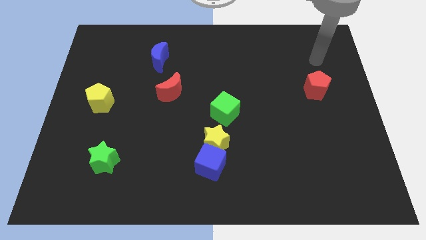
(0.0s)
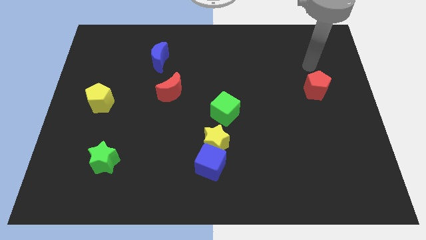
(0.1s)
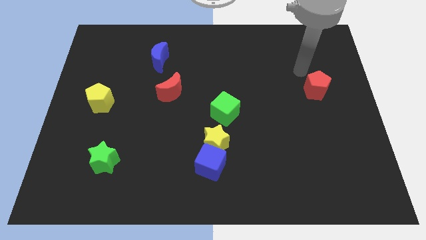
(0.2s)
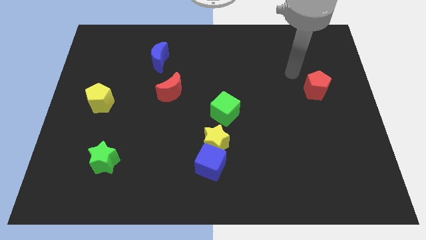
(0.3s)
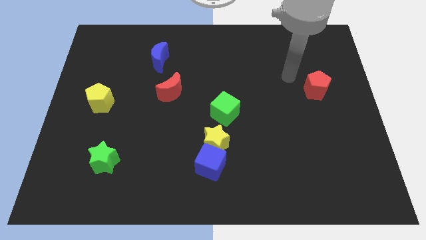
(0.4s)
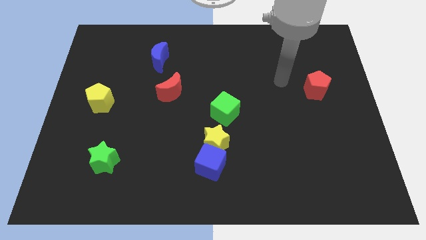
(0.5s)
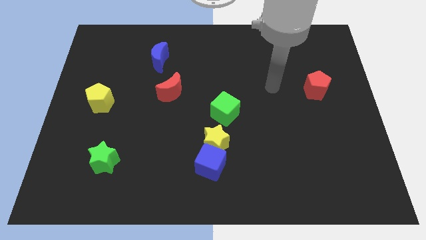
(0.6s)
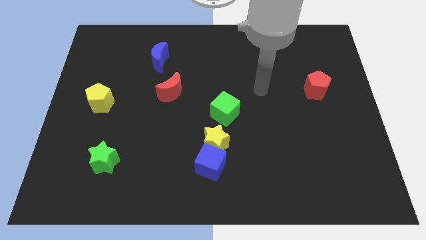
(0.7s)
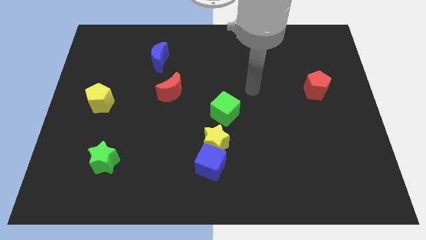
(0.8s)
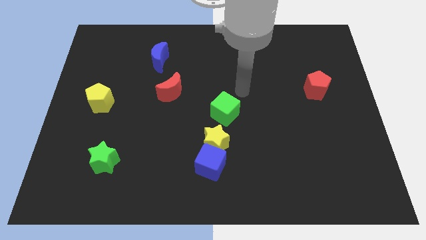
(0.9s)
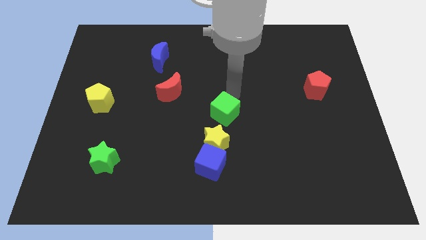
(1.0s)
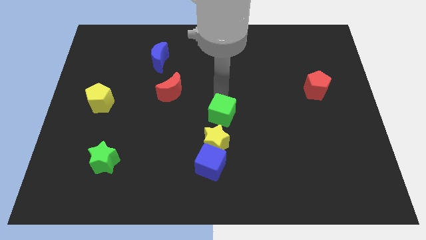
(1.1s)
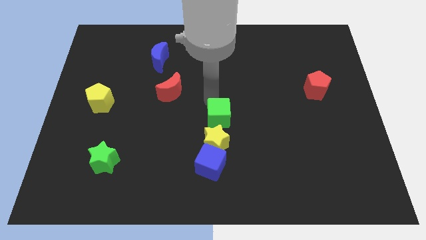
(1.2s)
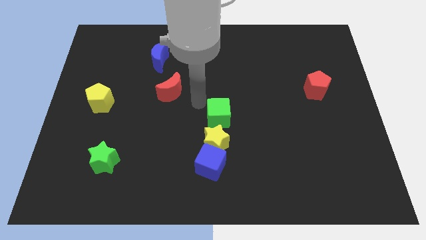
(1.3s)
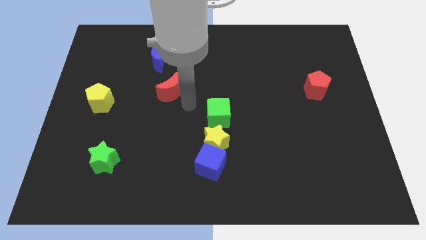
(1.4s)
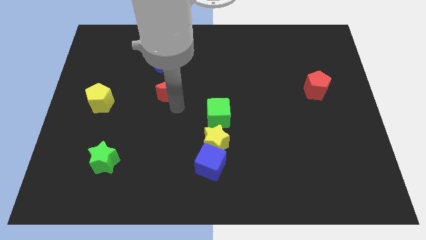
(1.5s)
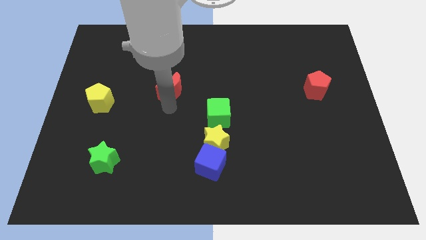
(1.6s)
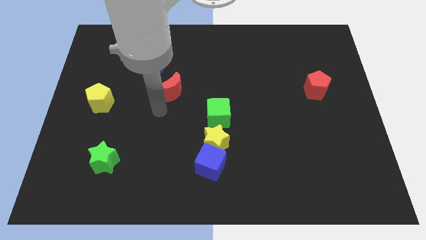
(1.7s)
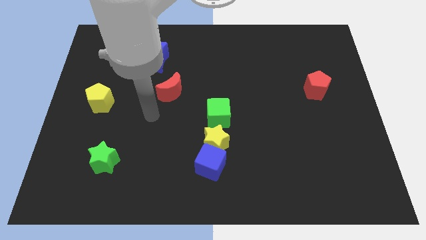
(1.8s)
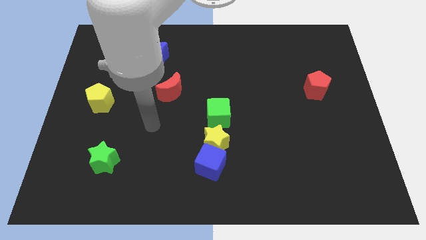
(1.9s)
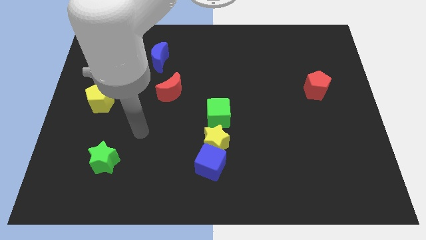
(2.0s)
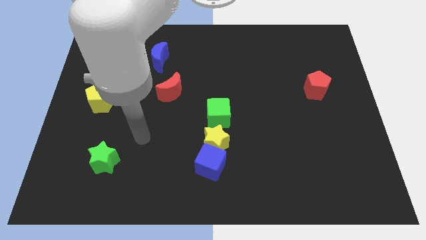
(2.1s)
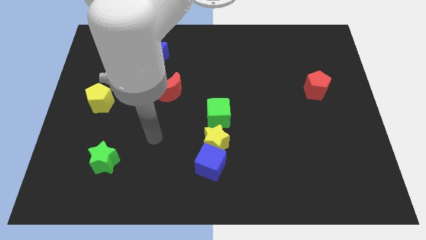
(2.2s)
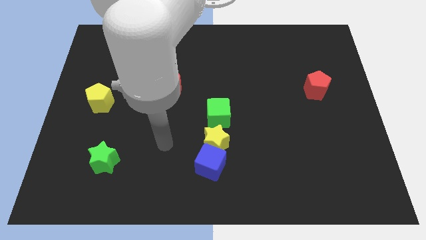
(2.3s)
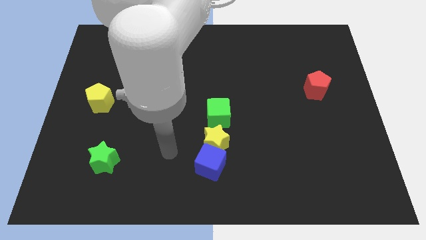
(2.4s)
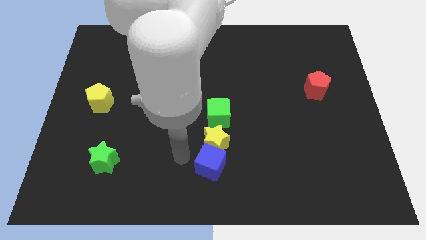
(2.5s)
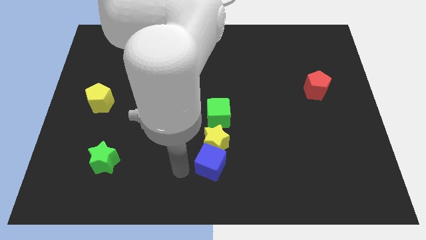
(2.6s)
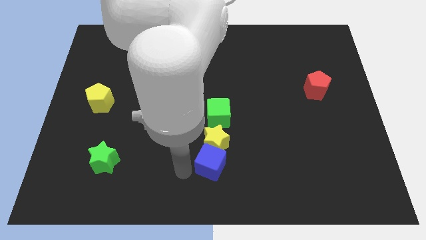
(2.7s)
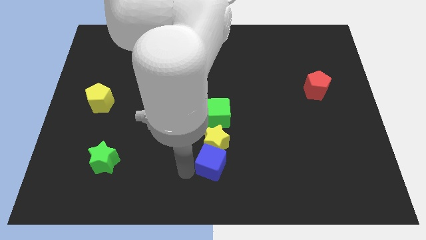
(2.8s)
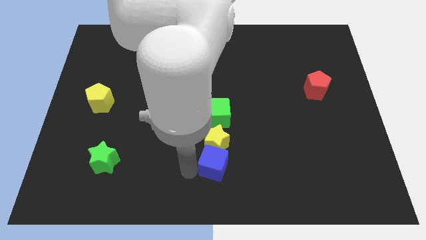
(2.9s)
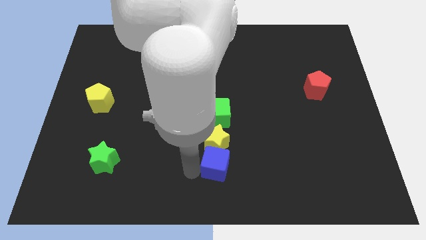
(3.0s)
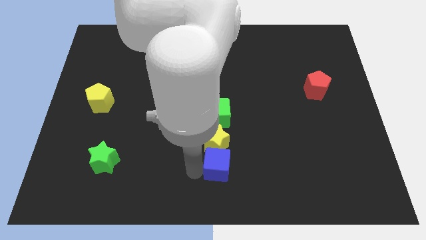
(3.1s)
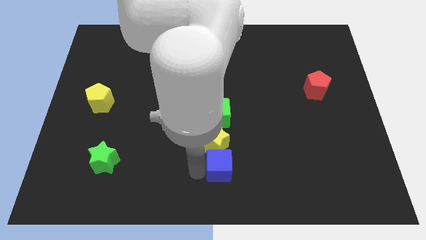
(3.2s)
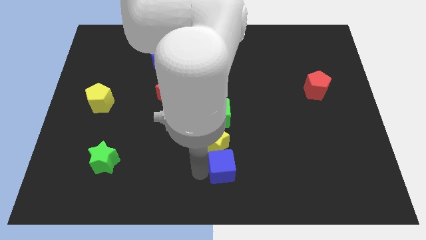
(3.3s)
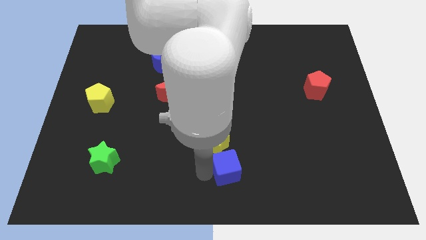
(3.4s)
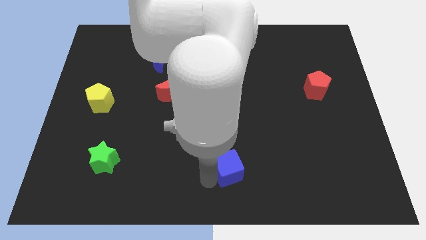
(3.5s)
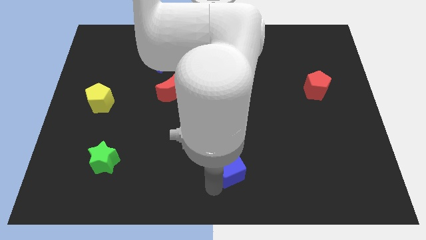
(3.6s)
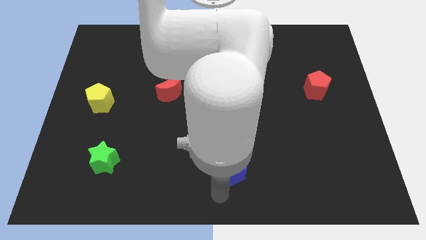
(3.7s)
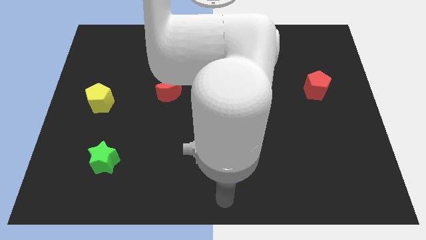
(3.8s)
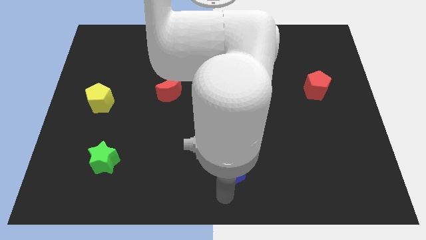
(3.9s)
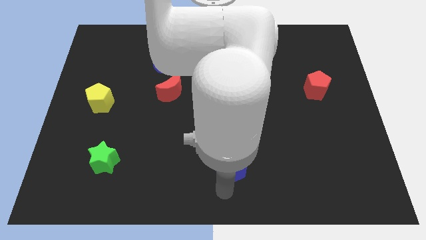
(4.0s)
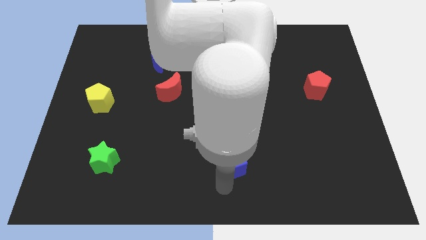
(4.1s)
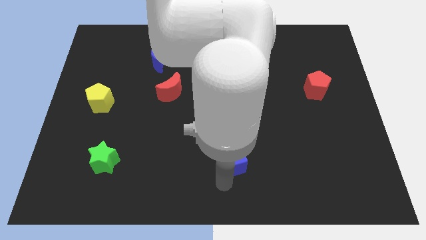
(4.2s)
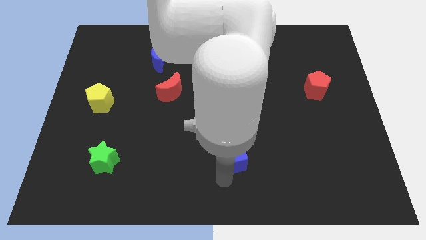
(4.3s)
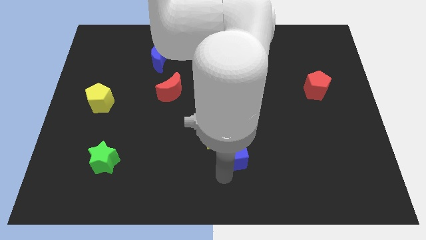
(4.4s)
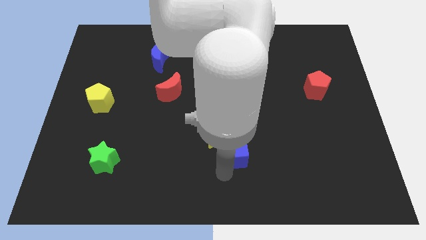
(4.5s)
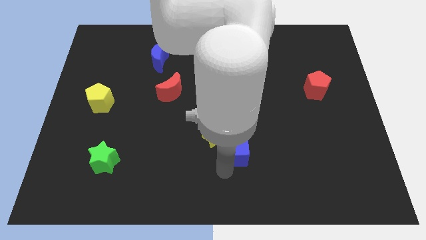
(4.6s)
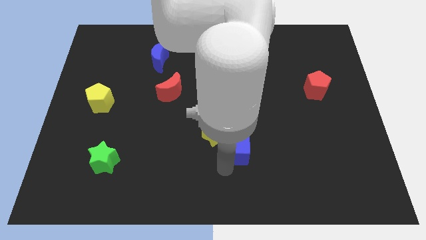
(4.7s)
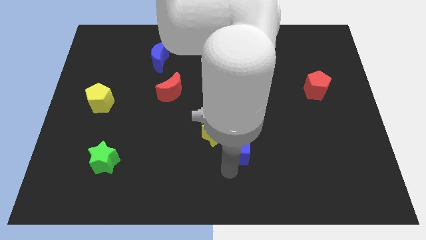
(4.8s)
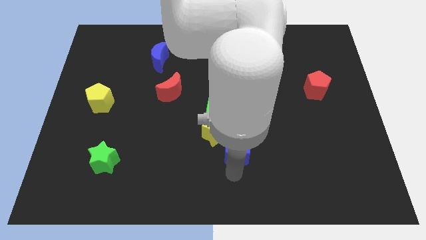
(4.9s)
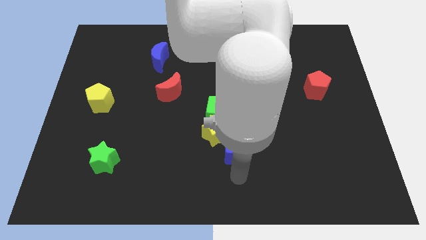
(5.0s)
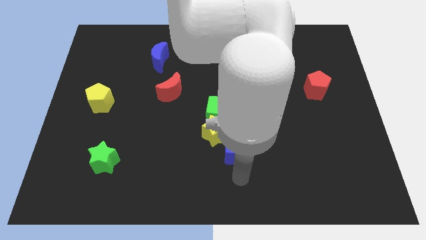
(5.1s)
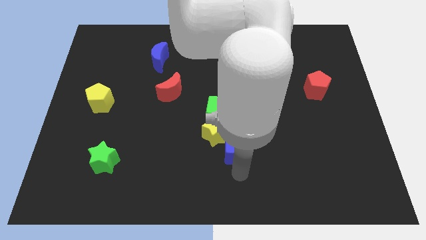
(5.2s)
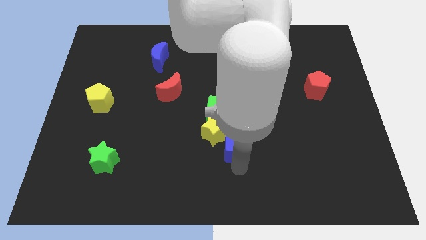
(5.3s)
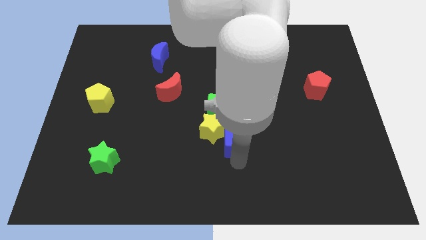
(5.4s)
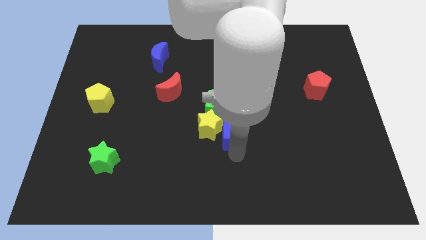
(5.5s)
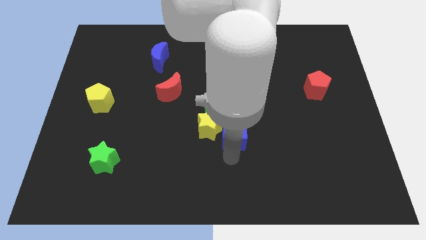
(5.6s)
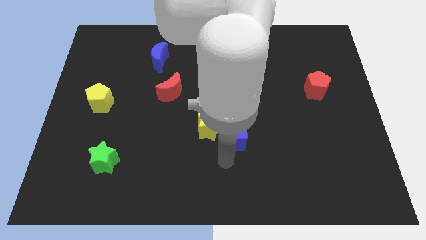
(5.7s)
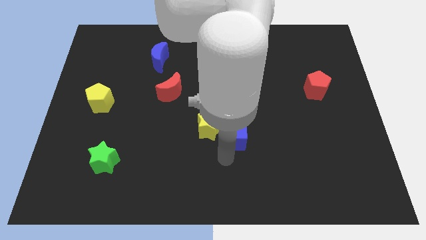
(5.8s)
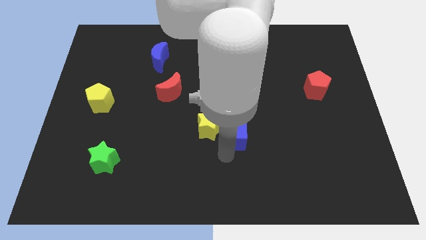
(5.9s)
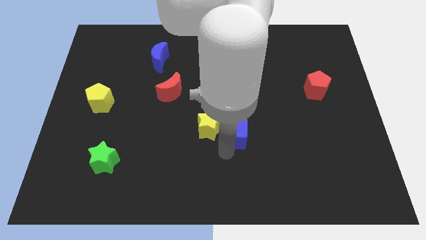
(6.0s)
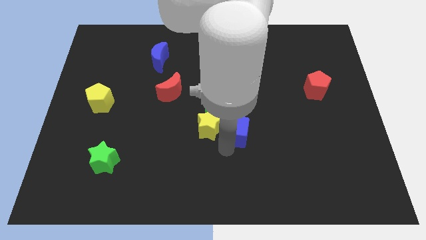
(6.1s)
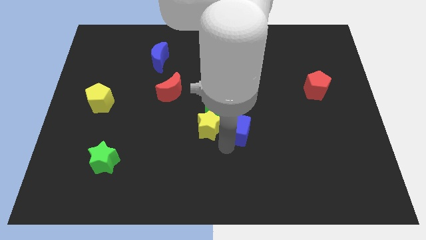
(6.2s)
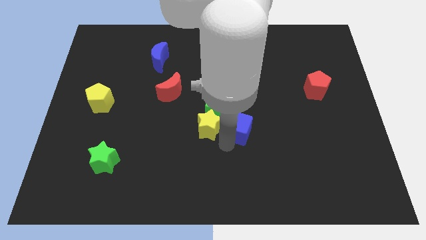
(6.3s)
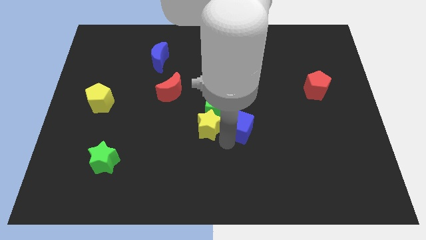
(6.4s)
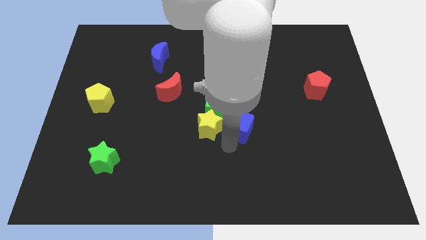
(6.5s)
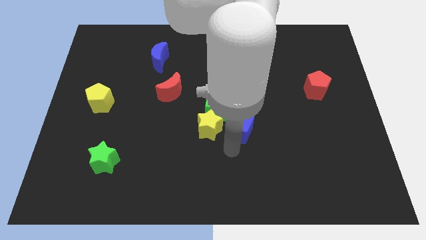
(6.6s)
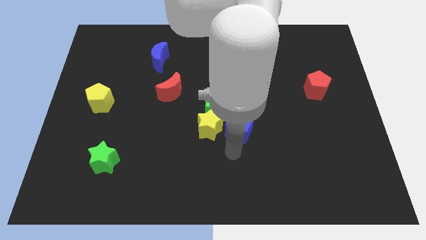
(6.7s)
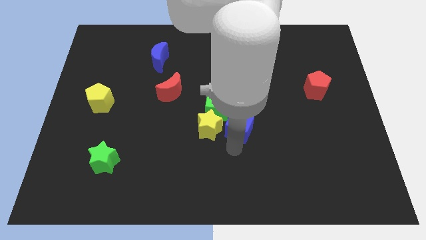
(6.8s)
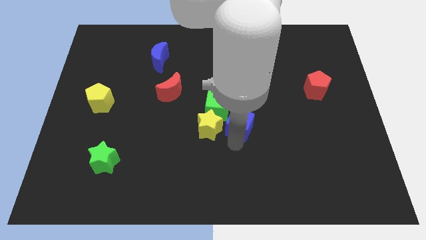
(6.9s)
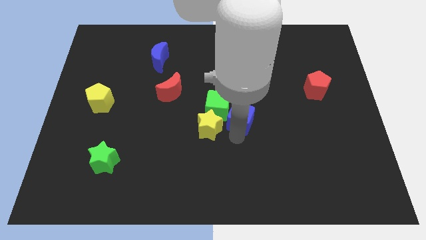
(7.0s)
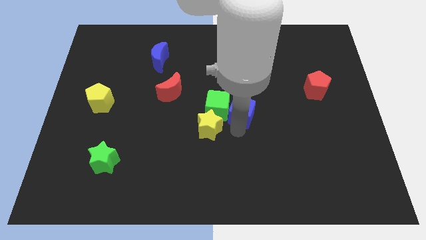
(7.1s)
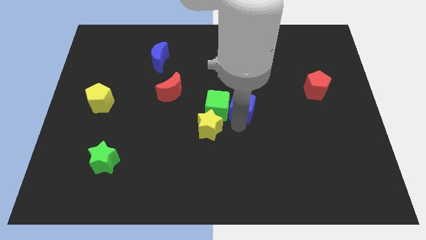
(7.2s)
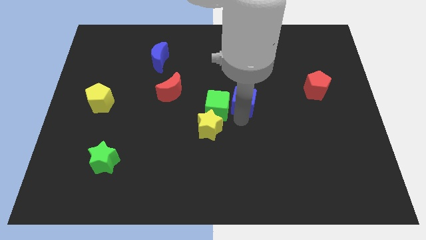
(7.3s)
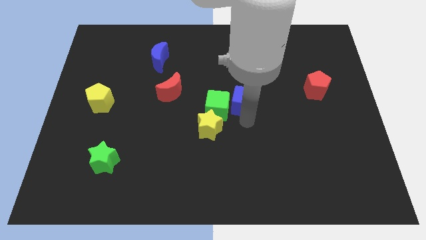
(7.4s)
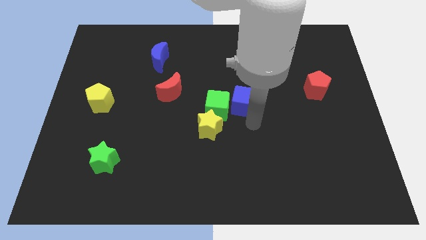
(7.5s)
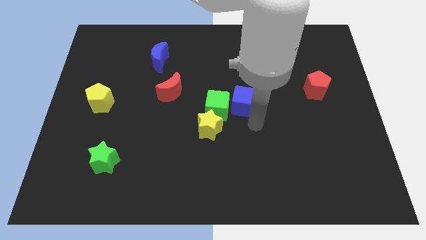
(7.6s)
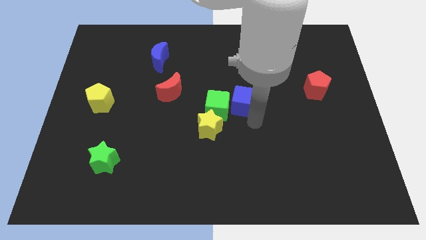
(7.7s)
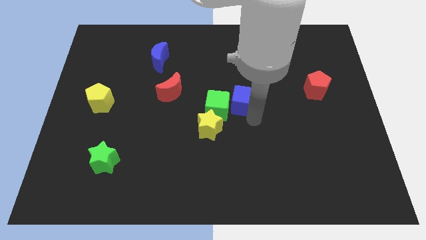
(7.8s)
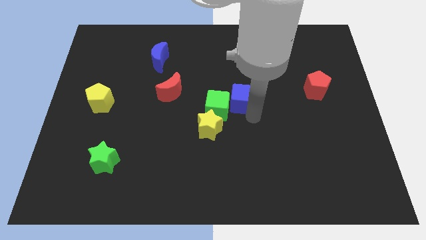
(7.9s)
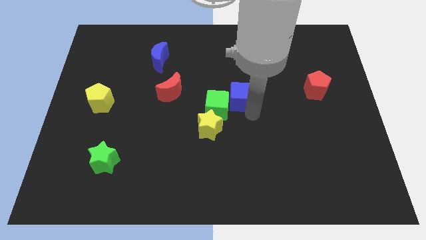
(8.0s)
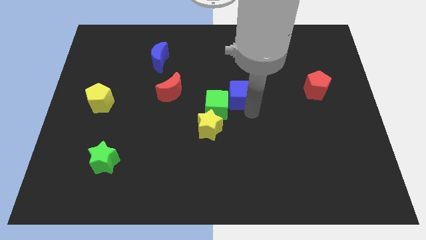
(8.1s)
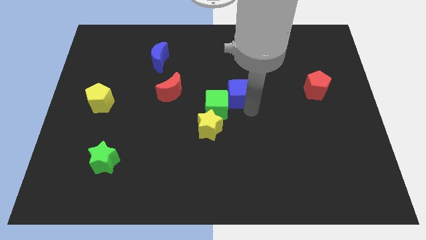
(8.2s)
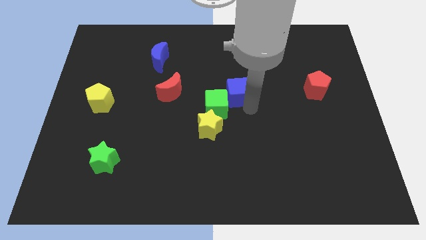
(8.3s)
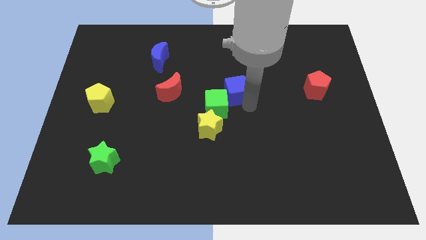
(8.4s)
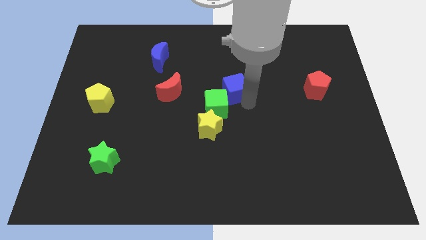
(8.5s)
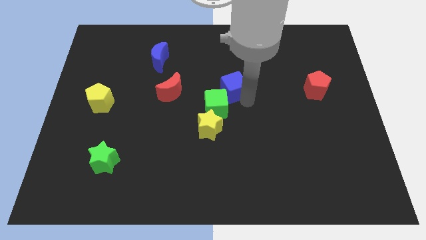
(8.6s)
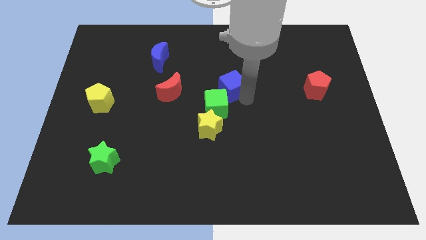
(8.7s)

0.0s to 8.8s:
push the blue cube upwards
